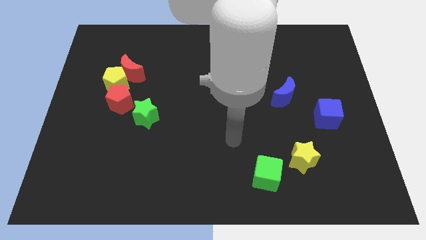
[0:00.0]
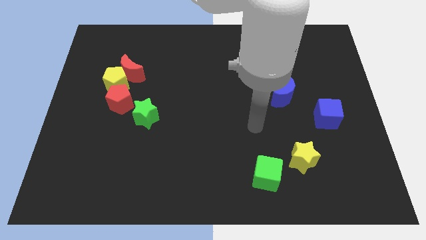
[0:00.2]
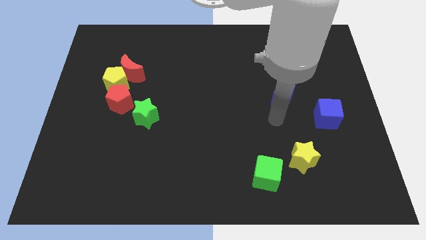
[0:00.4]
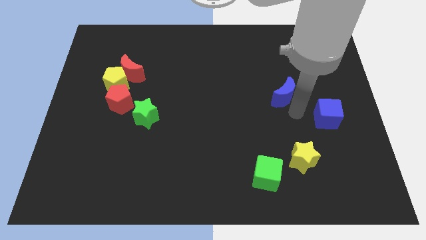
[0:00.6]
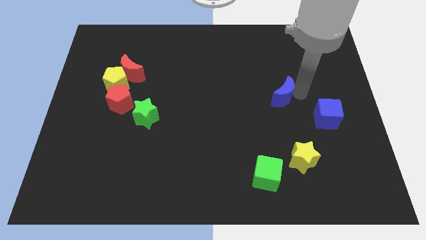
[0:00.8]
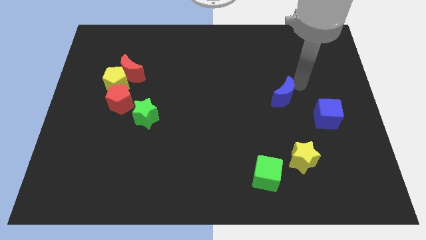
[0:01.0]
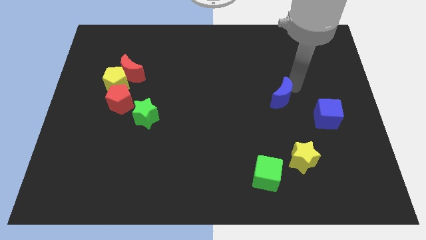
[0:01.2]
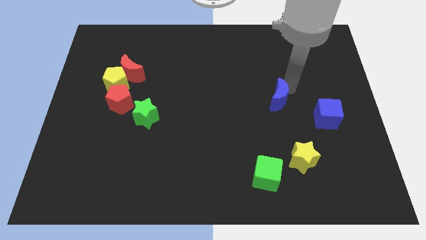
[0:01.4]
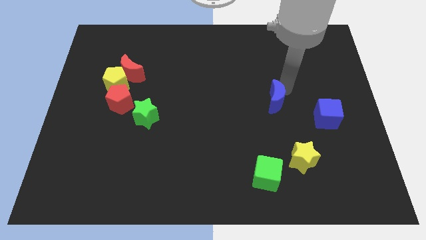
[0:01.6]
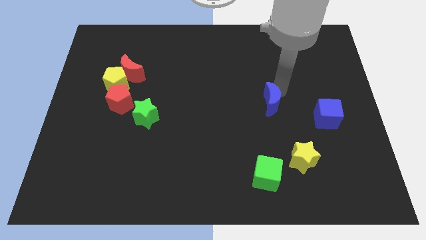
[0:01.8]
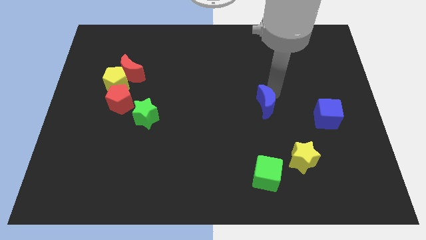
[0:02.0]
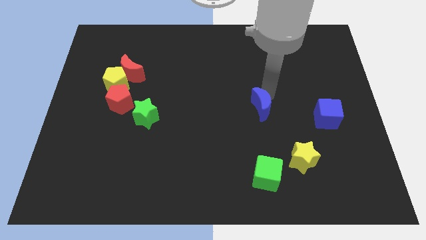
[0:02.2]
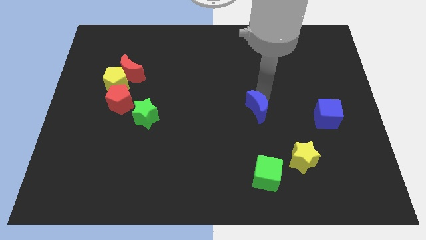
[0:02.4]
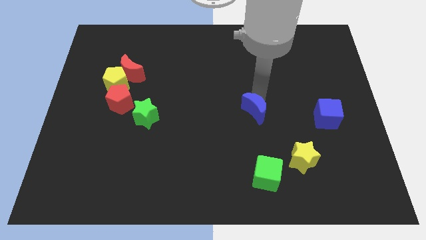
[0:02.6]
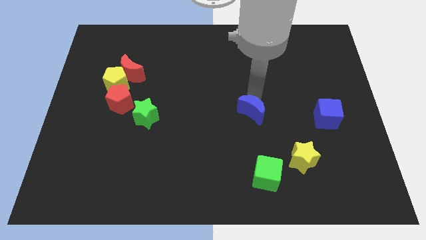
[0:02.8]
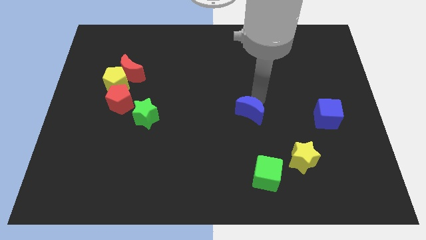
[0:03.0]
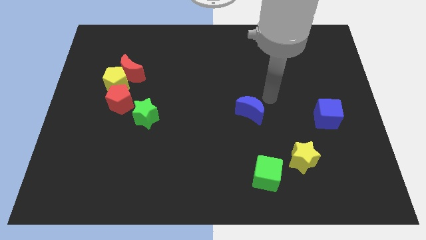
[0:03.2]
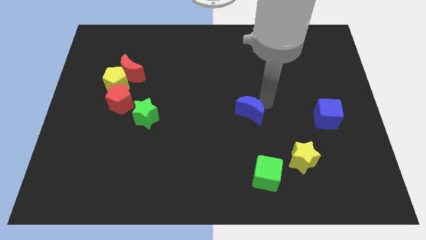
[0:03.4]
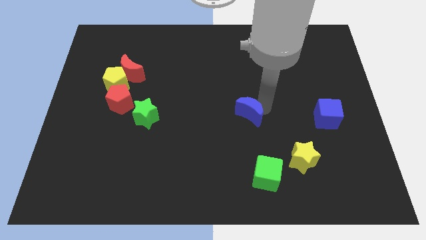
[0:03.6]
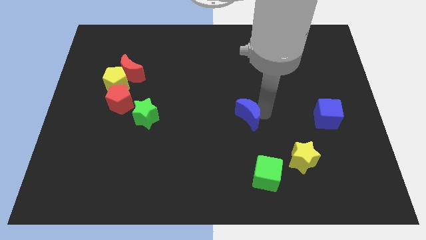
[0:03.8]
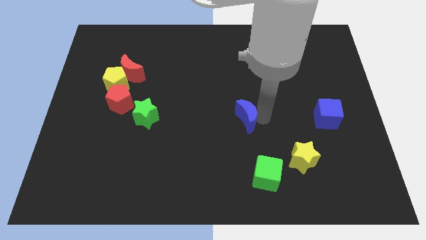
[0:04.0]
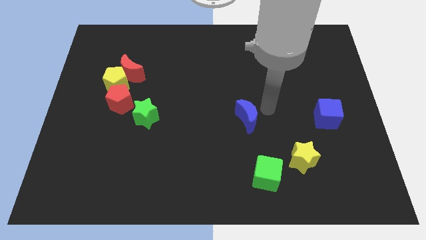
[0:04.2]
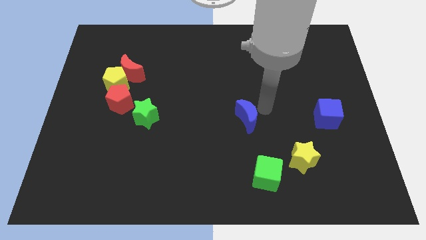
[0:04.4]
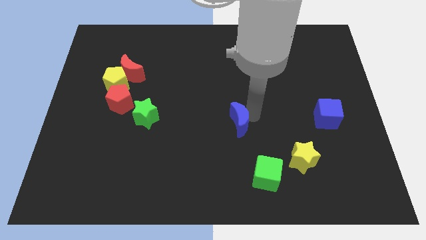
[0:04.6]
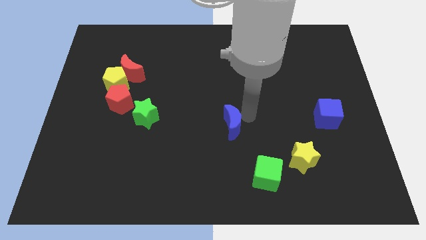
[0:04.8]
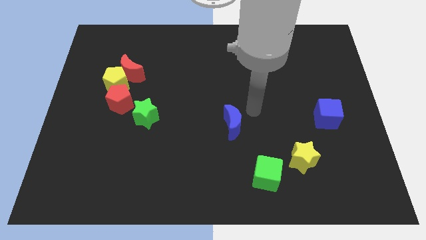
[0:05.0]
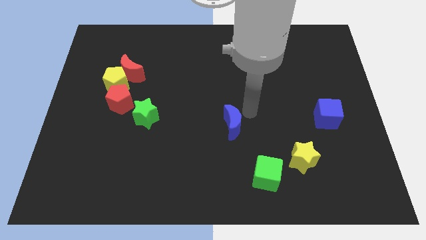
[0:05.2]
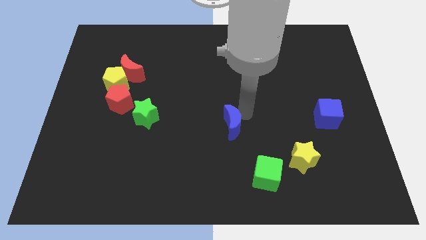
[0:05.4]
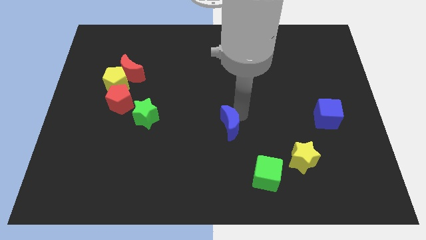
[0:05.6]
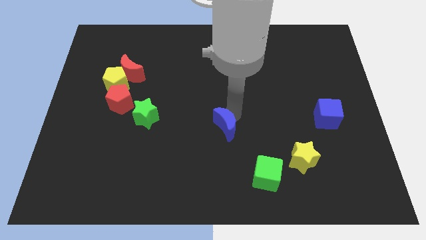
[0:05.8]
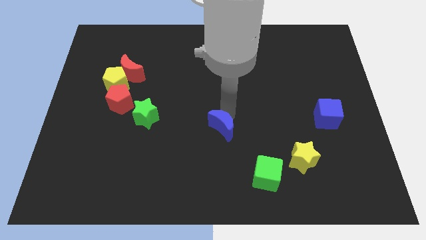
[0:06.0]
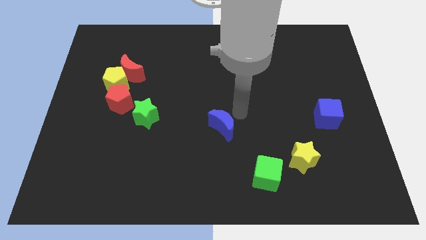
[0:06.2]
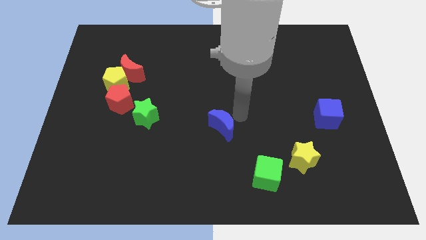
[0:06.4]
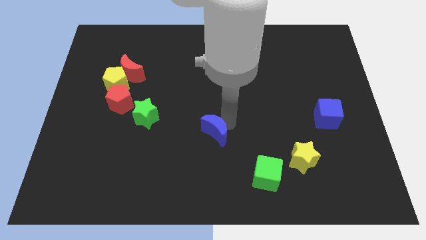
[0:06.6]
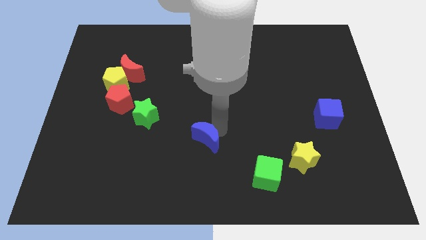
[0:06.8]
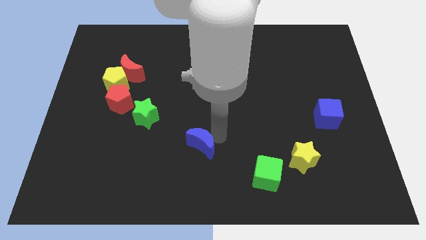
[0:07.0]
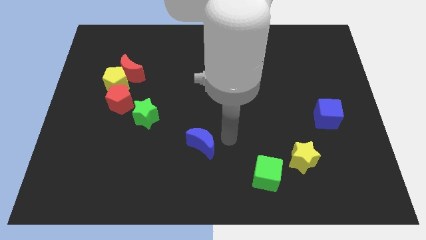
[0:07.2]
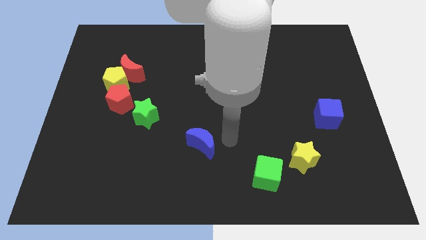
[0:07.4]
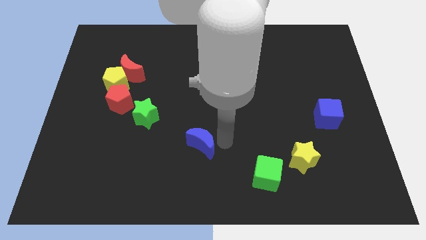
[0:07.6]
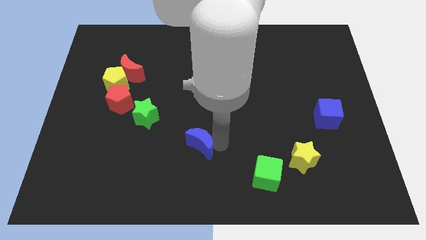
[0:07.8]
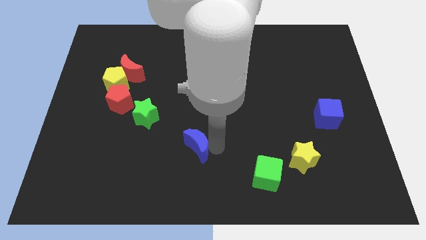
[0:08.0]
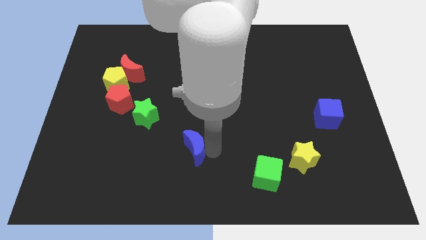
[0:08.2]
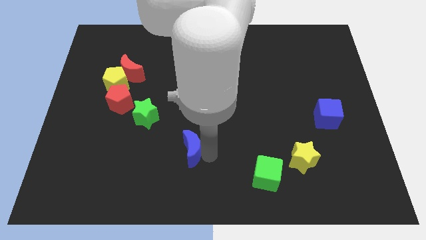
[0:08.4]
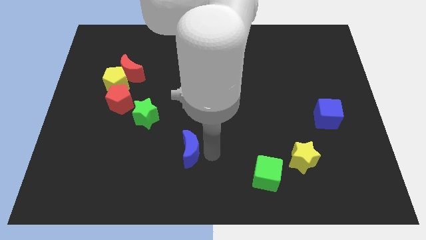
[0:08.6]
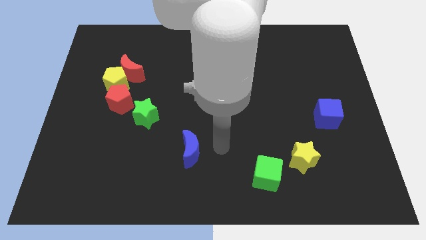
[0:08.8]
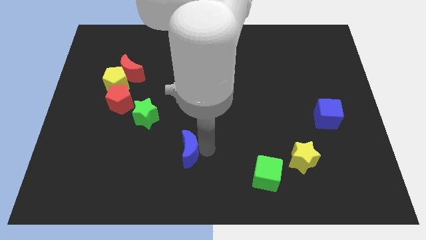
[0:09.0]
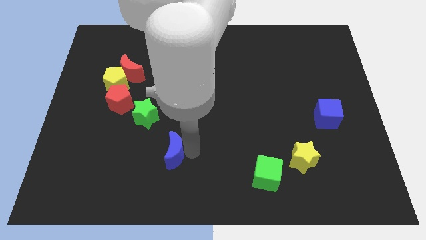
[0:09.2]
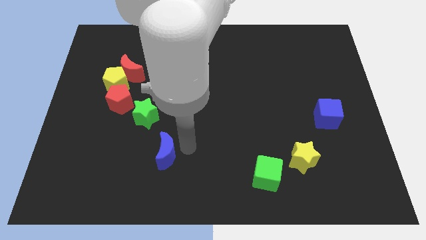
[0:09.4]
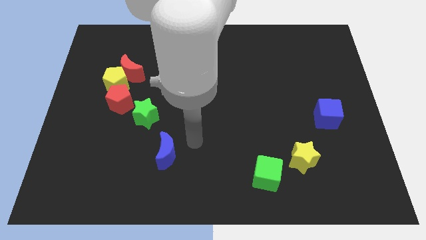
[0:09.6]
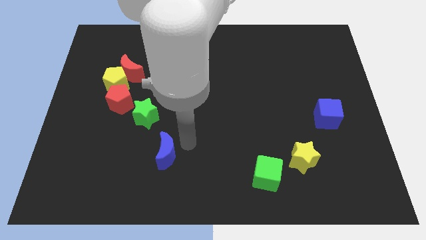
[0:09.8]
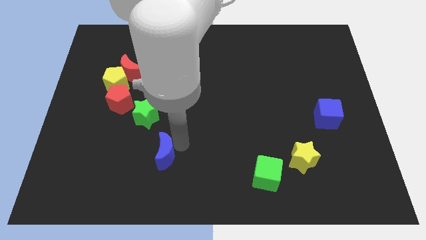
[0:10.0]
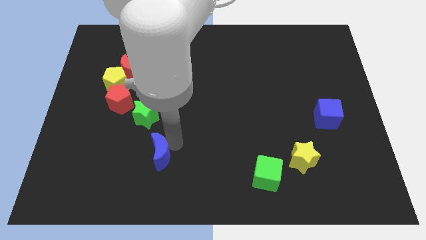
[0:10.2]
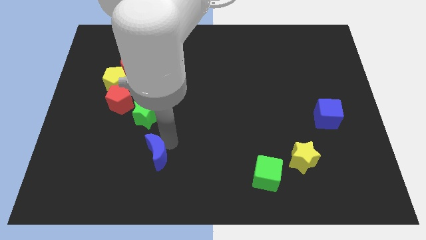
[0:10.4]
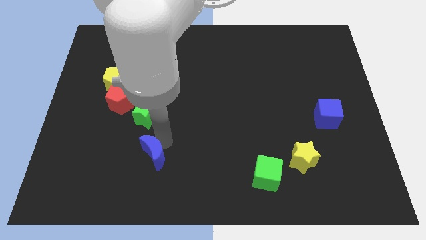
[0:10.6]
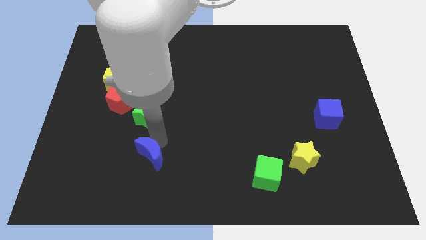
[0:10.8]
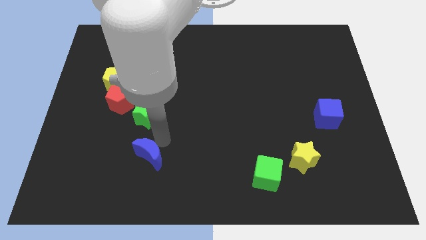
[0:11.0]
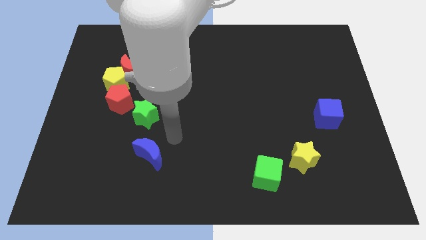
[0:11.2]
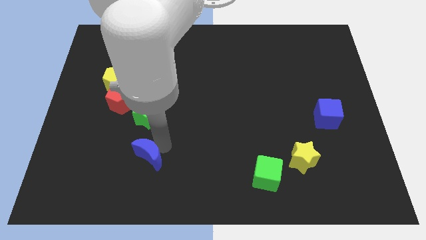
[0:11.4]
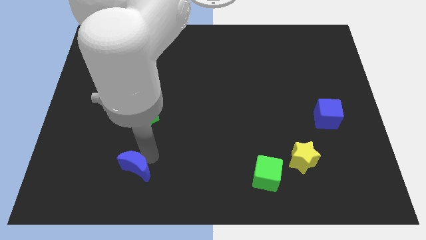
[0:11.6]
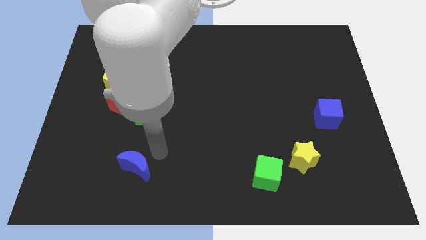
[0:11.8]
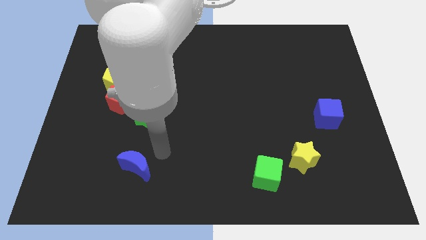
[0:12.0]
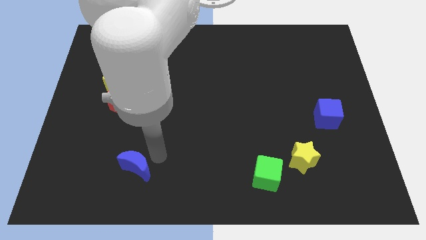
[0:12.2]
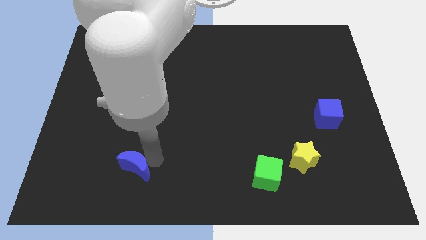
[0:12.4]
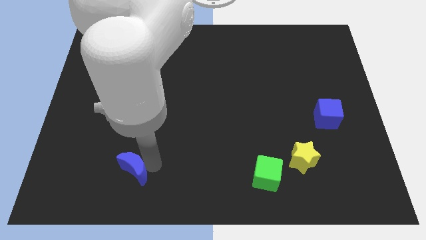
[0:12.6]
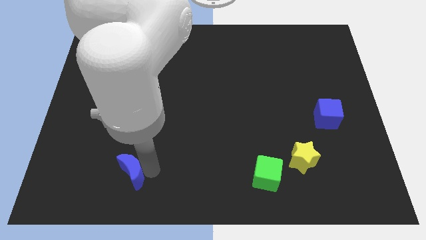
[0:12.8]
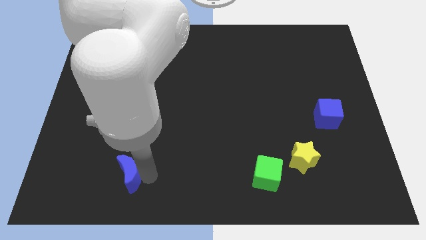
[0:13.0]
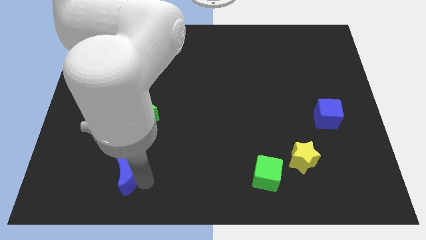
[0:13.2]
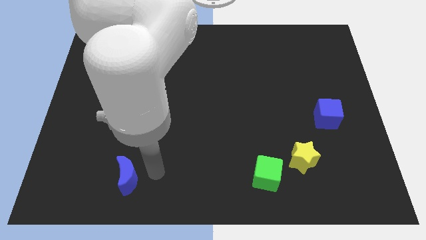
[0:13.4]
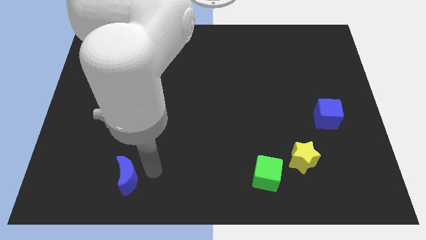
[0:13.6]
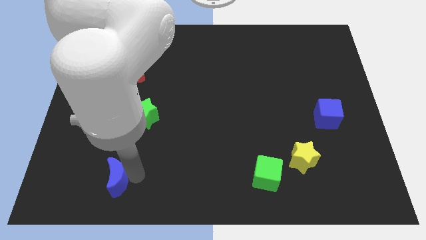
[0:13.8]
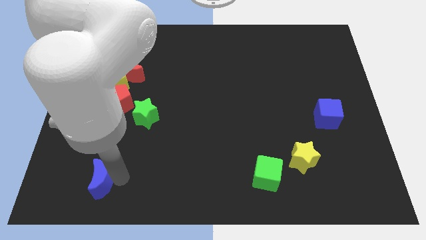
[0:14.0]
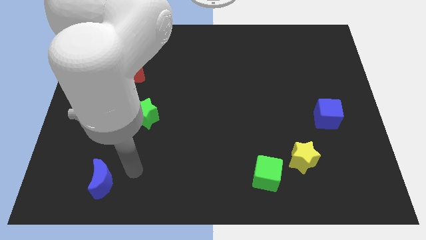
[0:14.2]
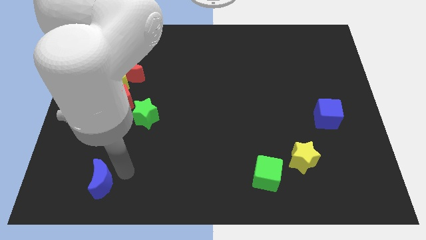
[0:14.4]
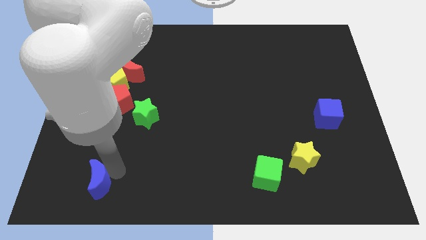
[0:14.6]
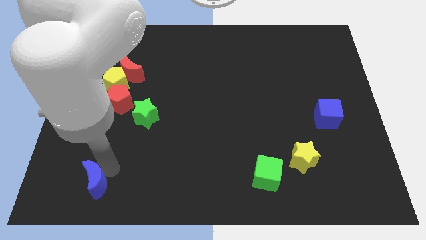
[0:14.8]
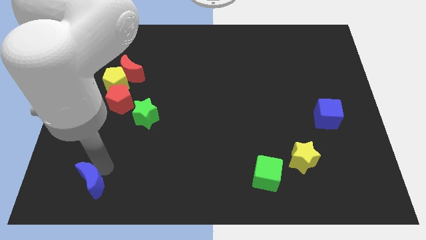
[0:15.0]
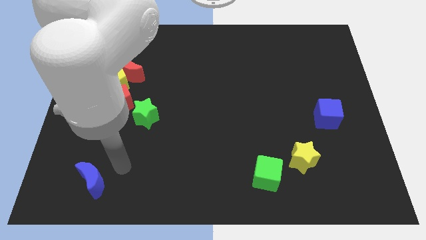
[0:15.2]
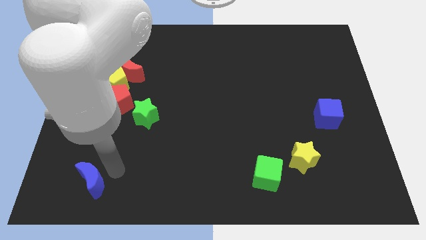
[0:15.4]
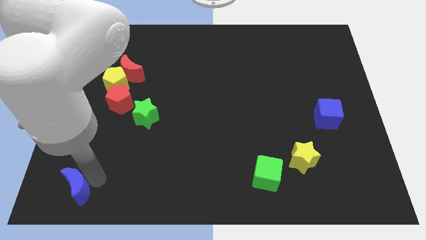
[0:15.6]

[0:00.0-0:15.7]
push the blue moon to the bottom left corner
